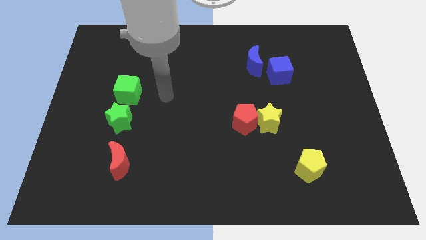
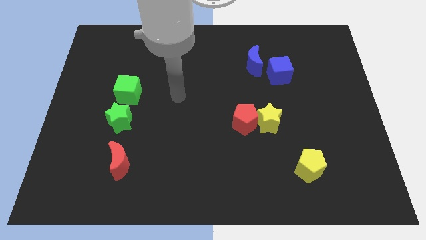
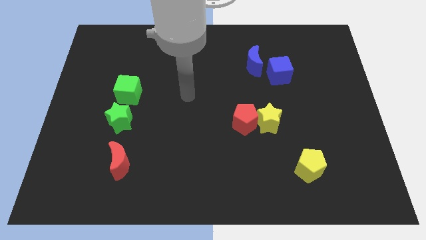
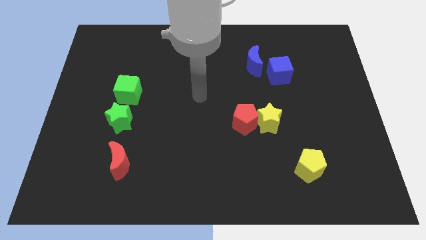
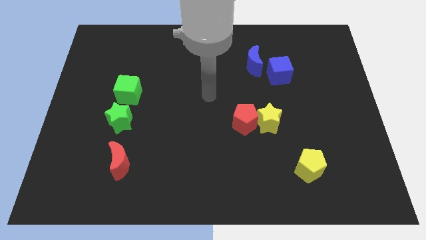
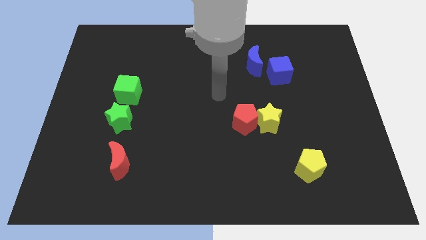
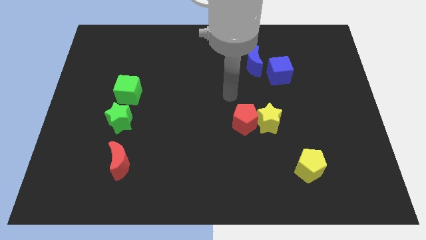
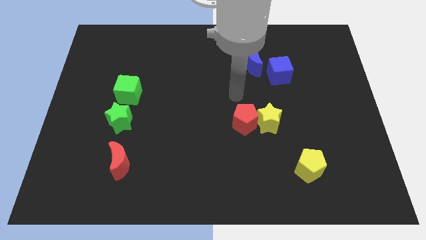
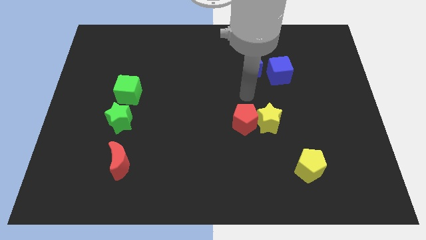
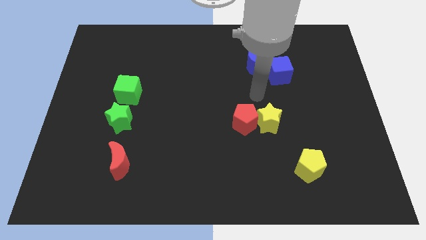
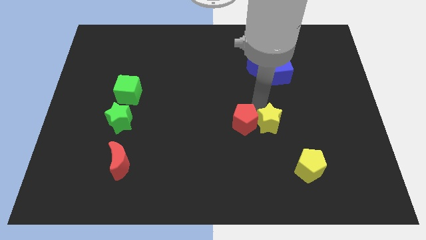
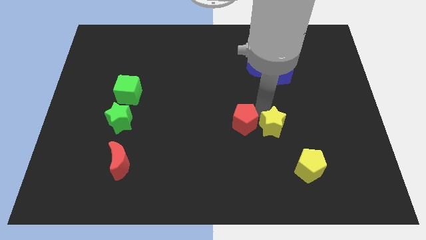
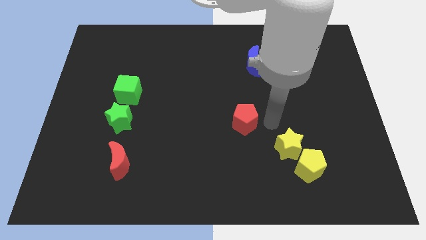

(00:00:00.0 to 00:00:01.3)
pull the red pentagon apart from the yellow star

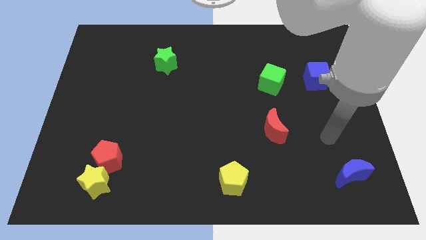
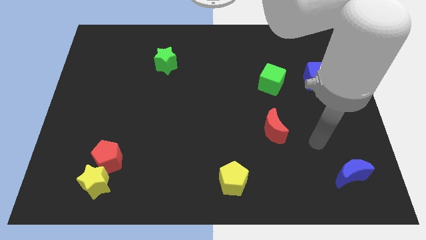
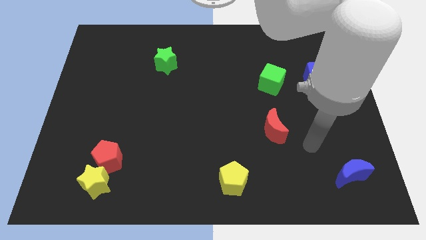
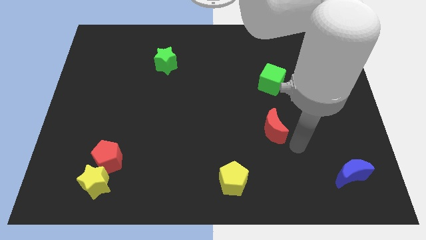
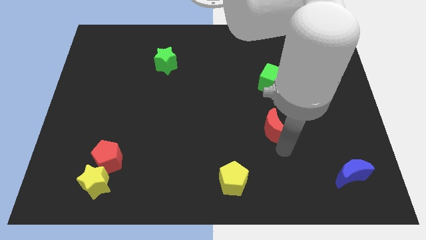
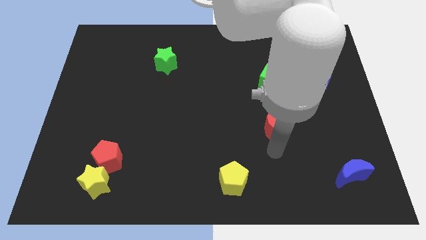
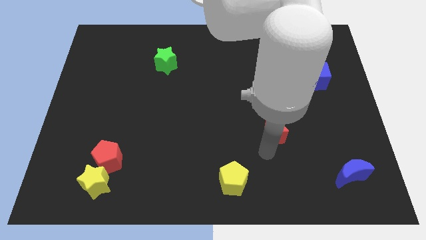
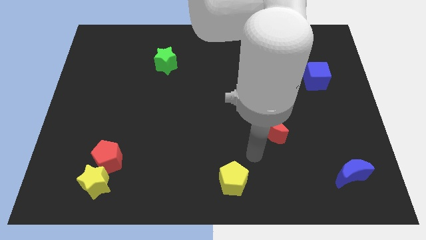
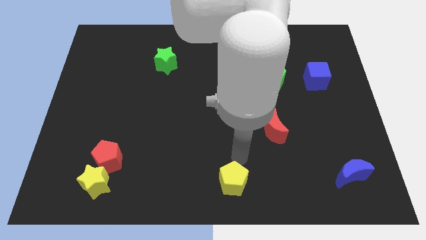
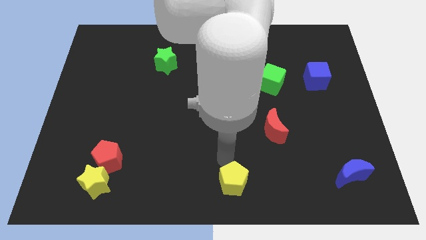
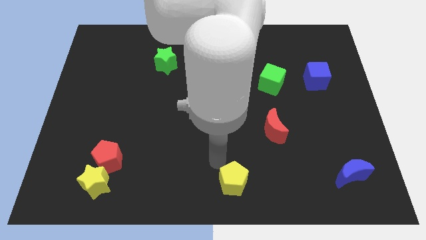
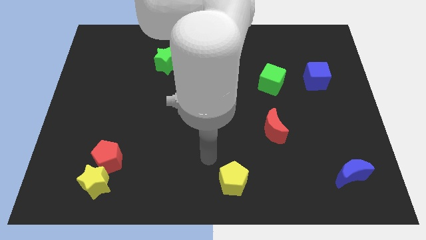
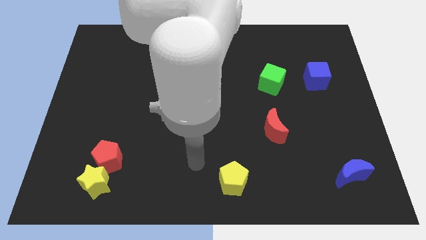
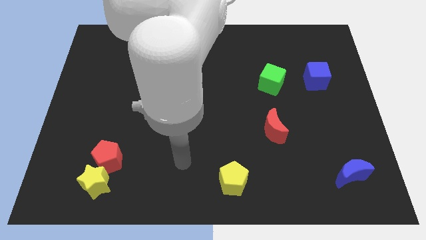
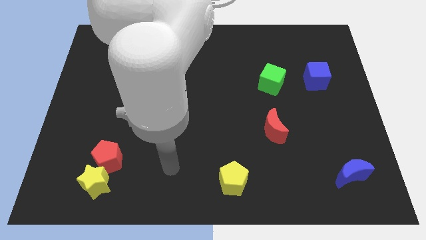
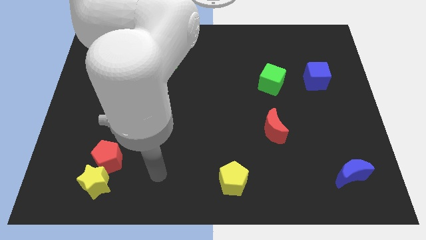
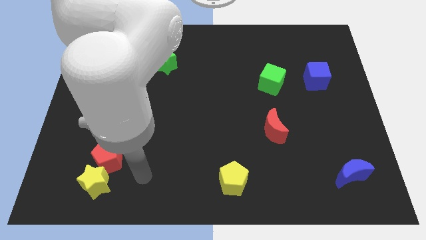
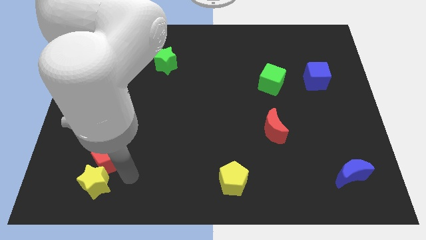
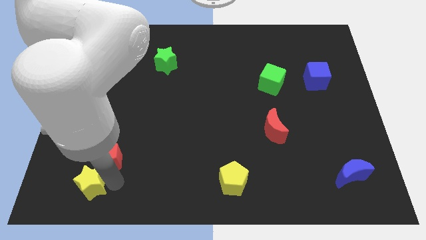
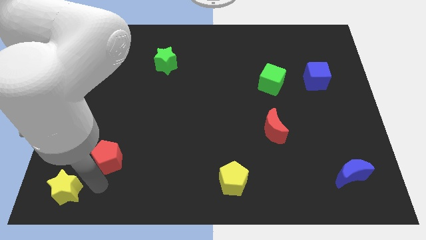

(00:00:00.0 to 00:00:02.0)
separate the red pentagon from the yellow star

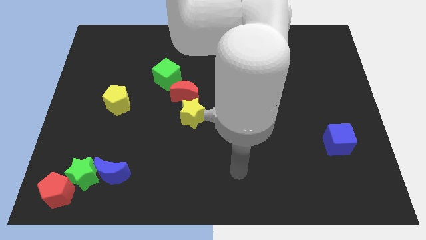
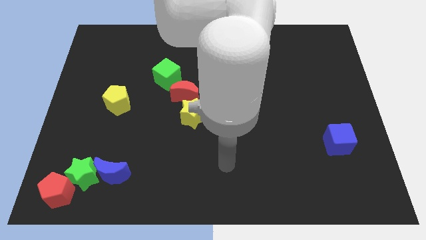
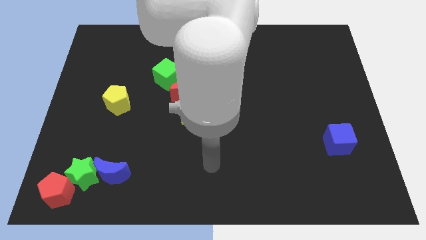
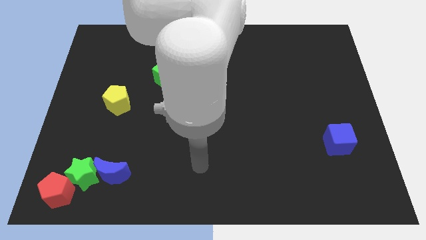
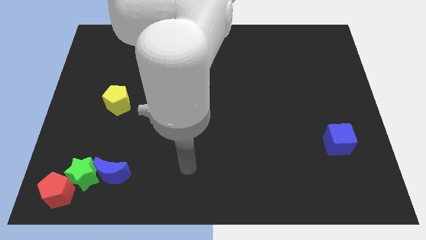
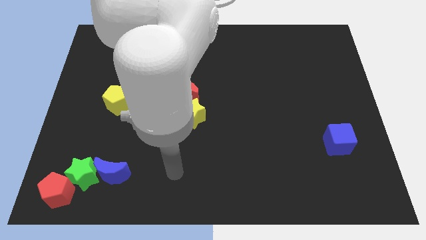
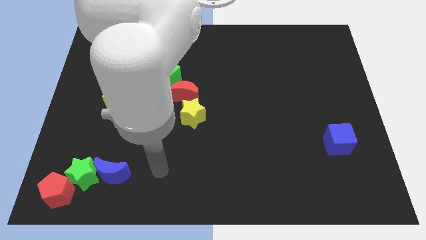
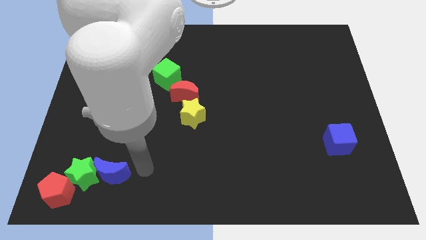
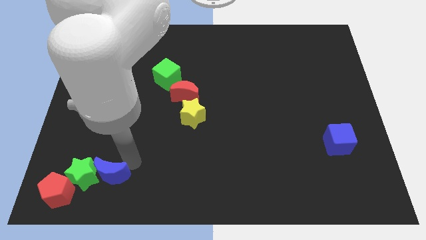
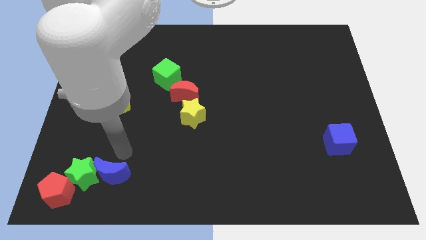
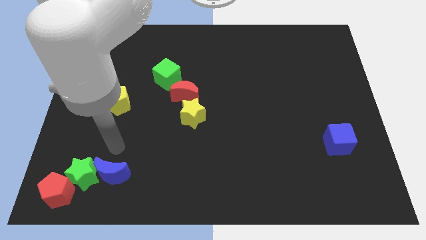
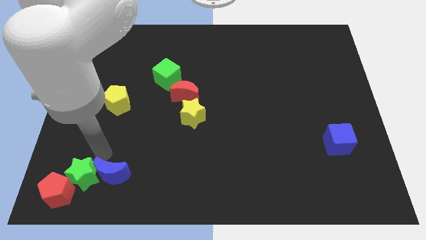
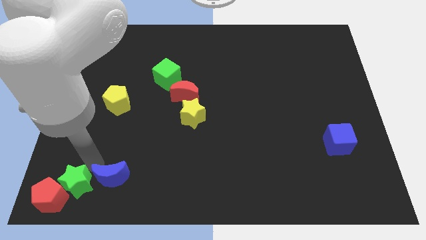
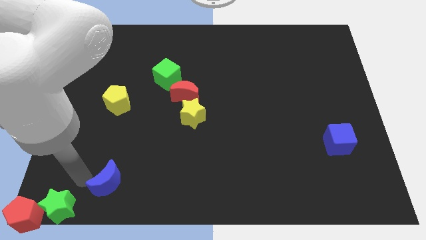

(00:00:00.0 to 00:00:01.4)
separate the blue moon from the green star

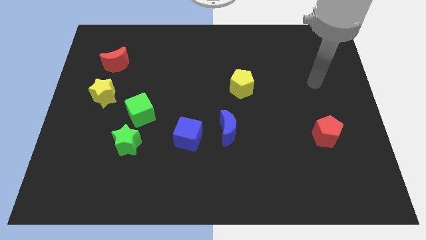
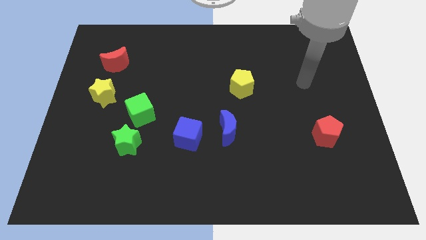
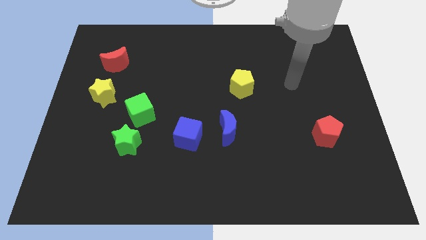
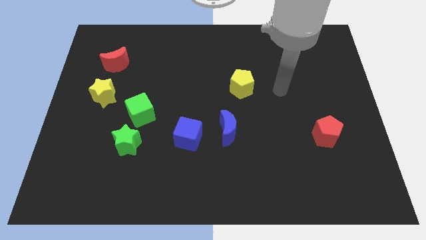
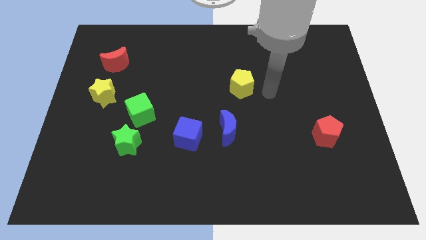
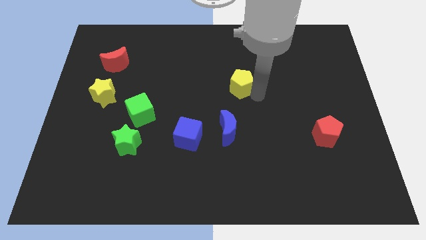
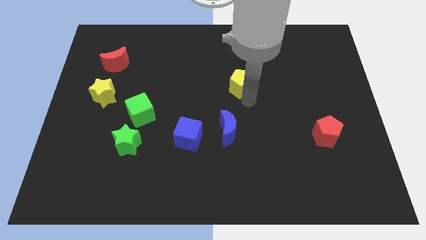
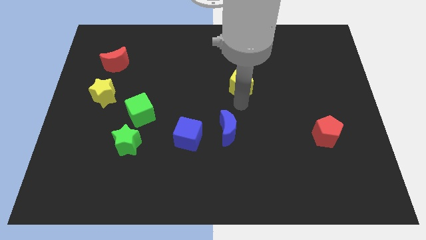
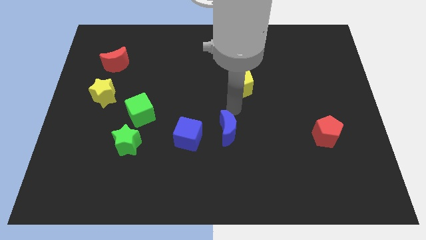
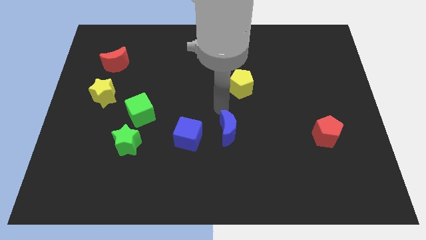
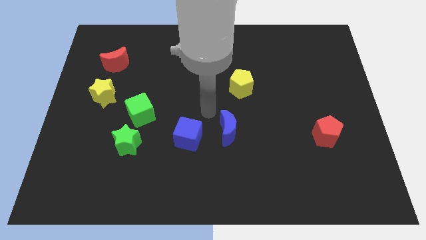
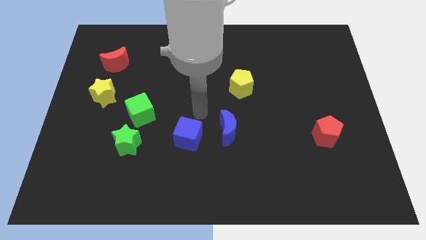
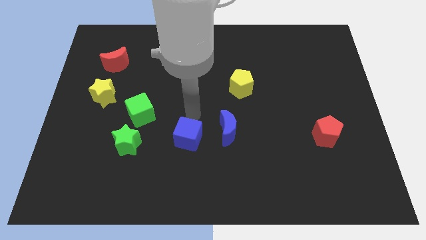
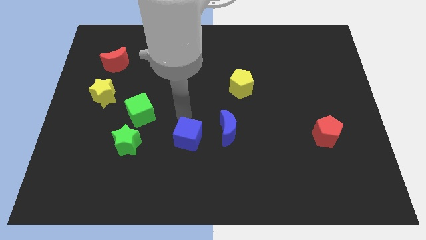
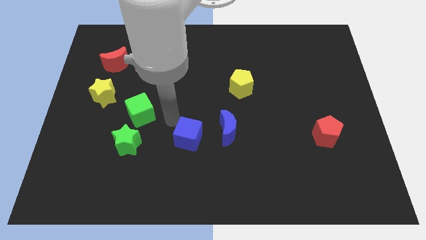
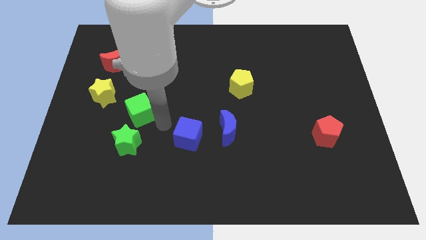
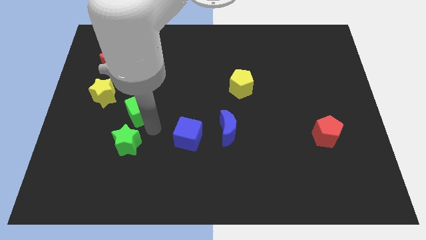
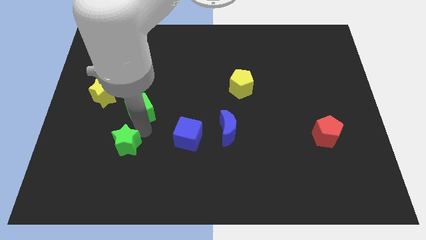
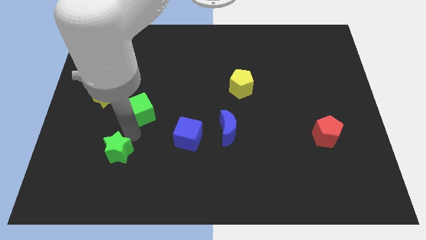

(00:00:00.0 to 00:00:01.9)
move the green cube away from the green star

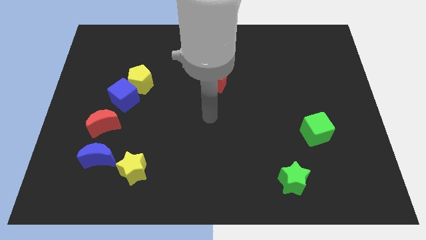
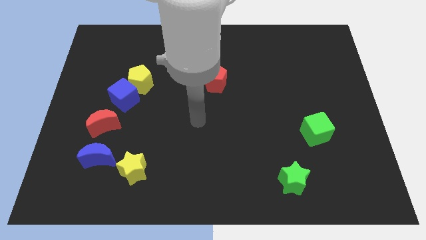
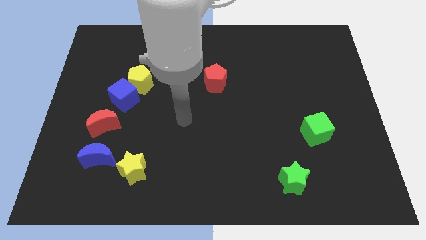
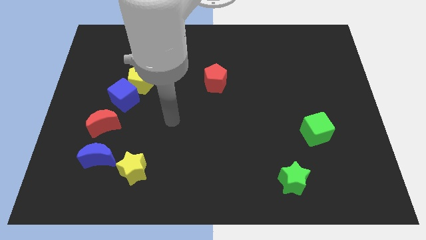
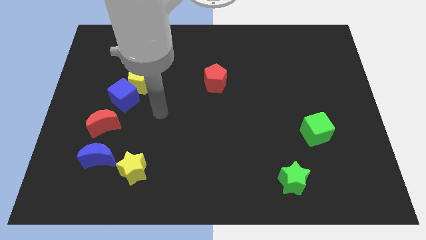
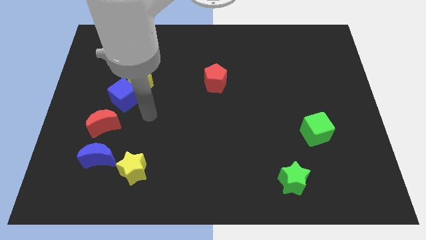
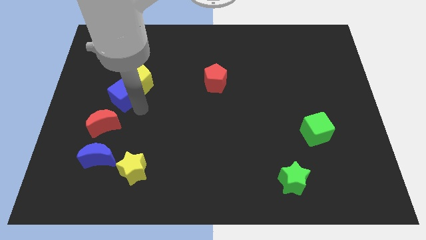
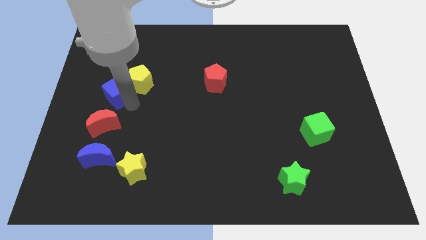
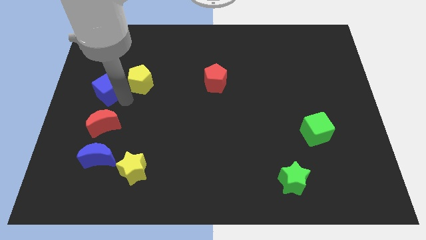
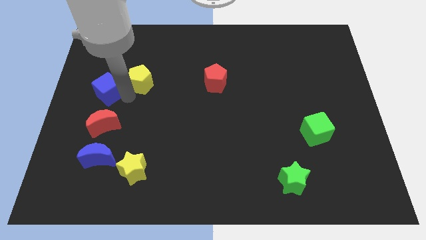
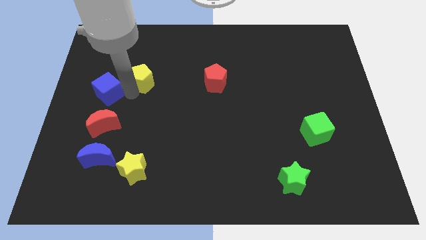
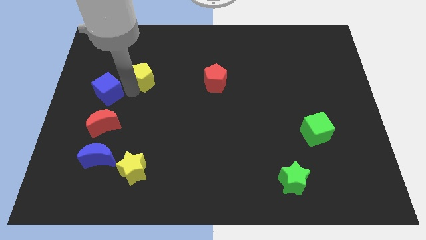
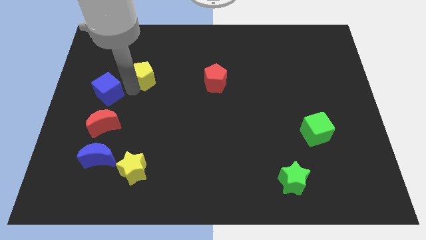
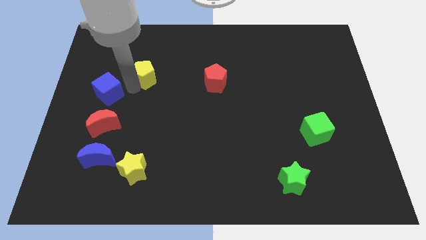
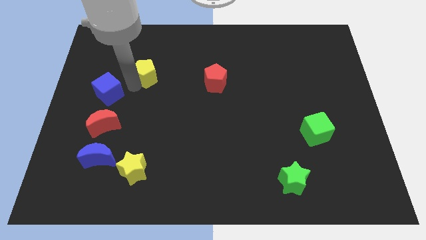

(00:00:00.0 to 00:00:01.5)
pull the yellow pentagon apart from the blue cube

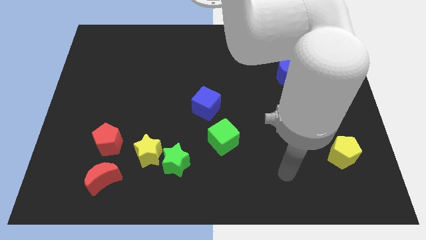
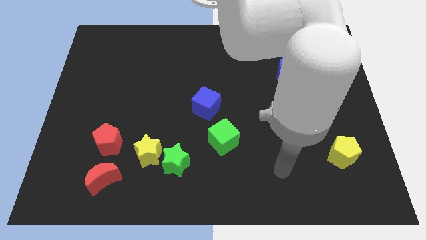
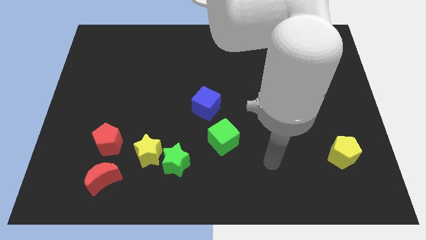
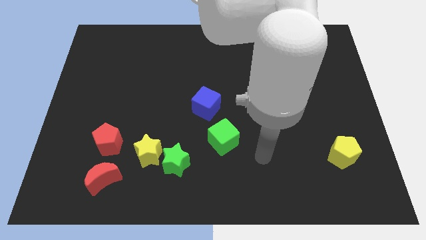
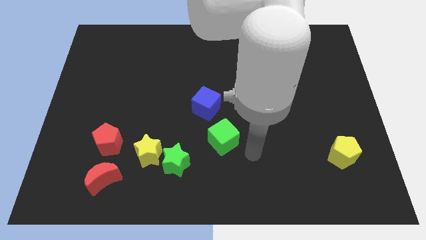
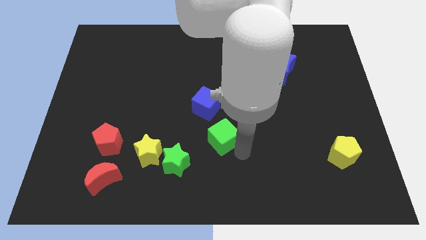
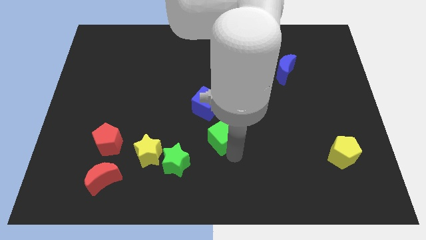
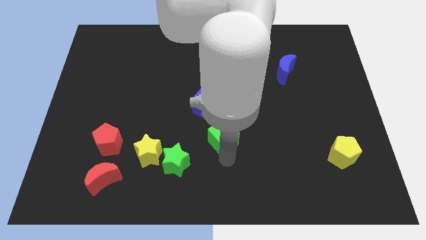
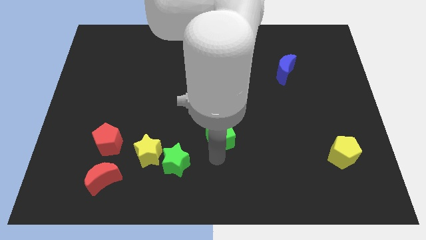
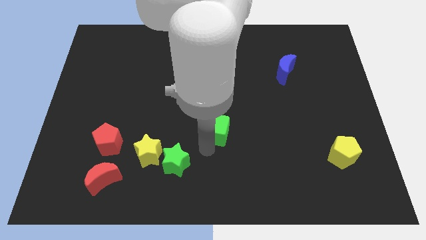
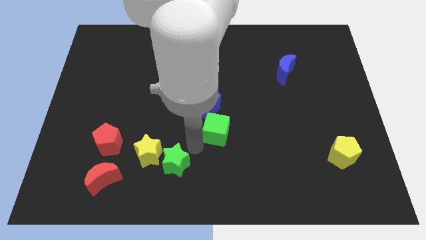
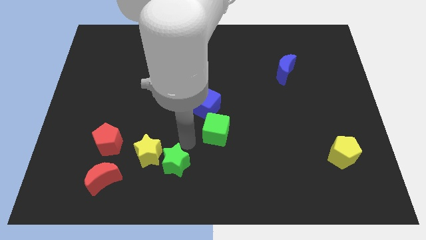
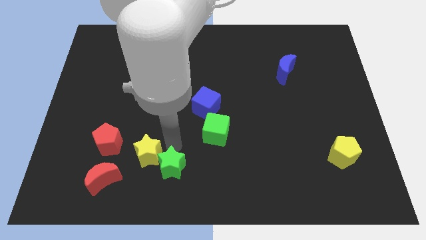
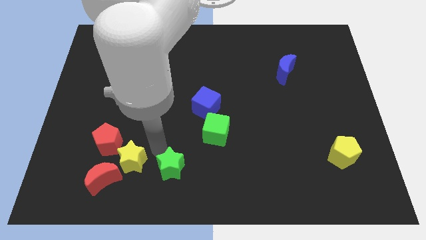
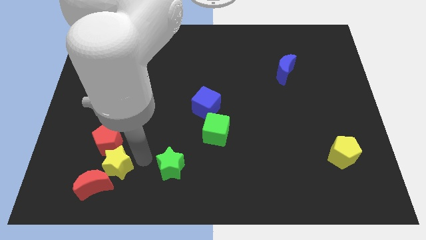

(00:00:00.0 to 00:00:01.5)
separate the green star from the yellow star
